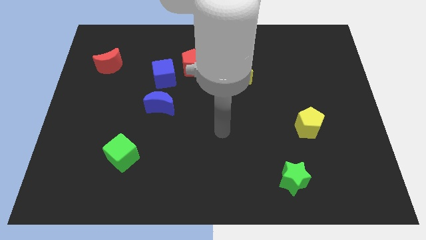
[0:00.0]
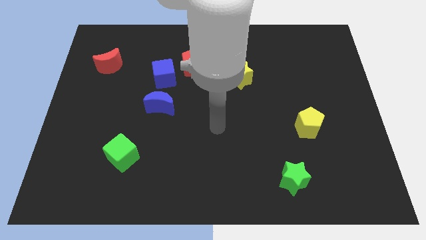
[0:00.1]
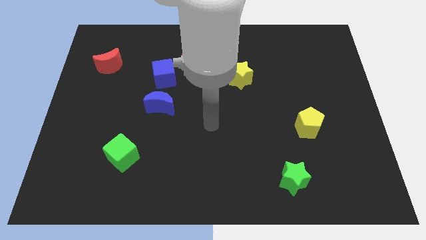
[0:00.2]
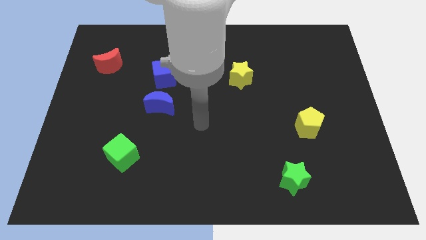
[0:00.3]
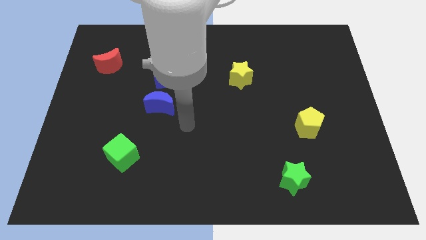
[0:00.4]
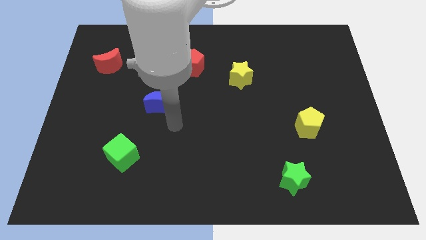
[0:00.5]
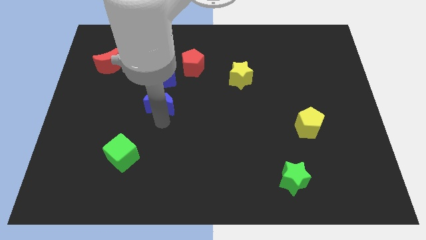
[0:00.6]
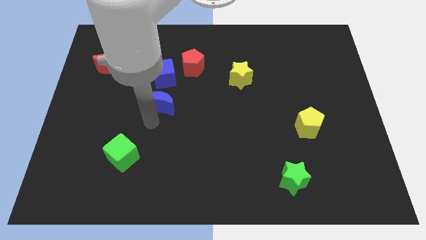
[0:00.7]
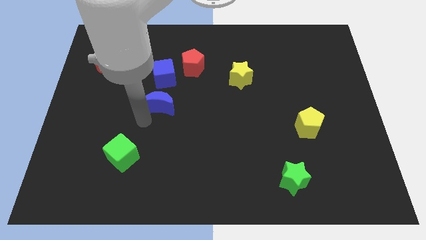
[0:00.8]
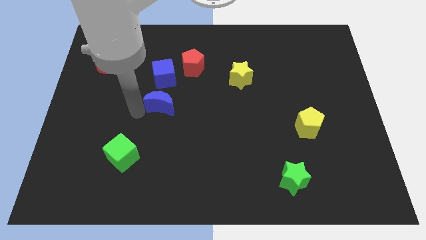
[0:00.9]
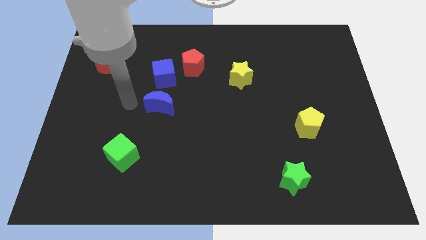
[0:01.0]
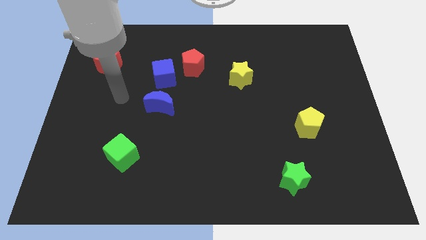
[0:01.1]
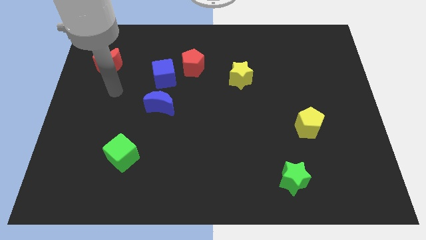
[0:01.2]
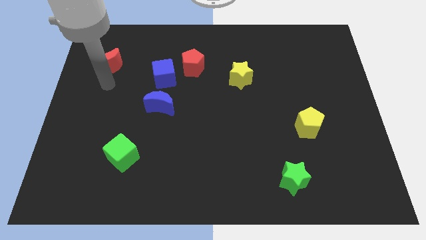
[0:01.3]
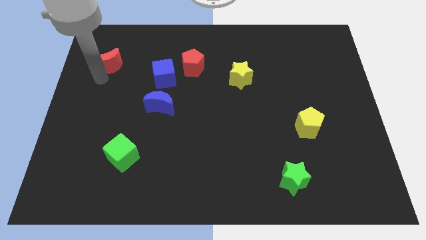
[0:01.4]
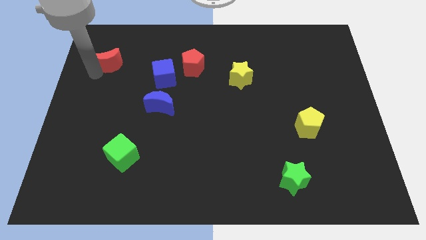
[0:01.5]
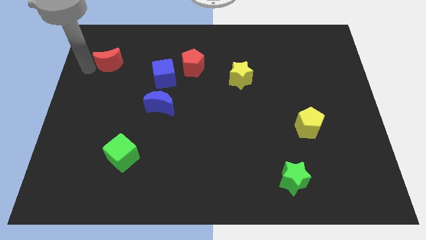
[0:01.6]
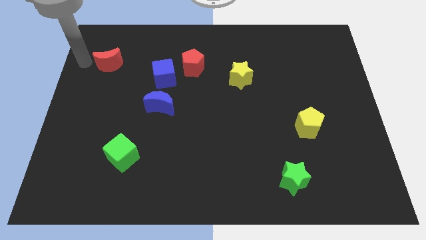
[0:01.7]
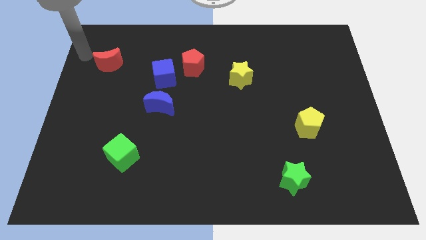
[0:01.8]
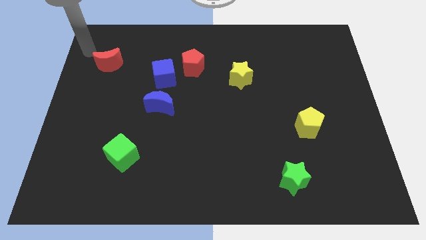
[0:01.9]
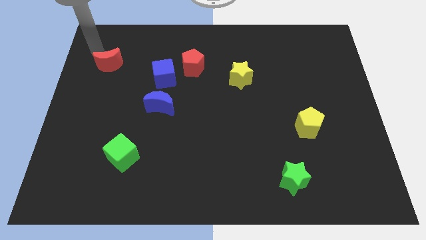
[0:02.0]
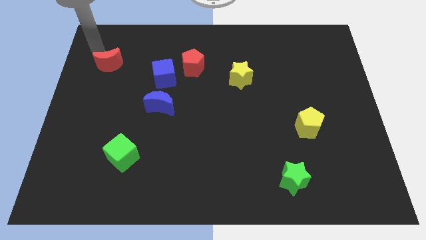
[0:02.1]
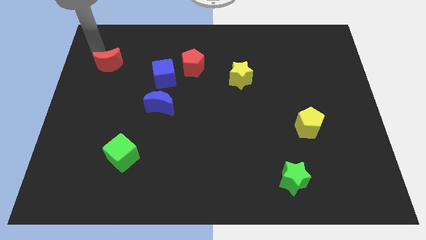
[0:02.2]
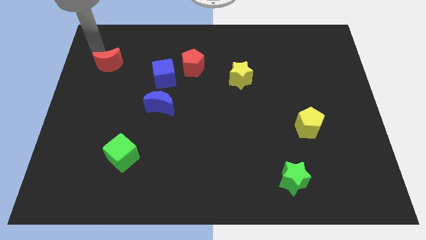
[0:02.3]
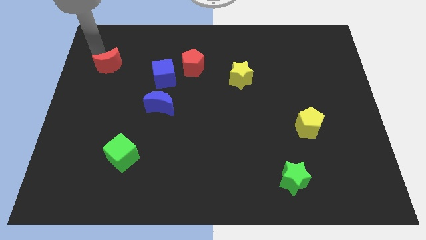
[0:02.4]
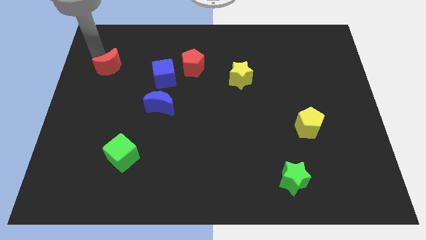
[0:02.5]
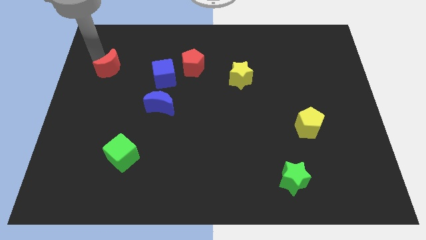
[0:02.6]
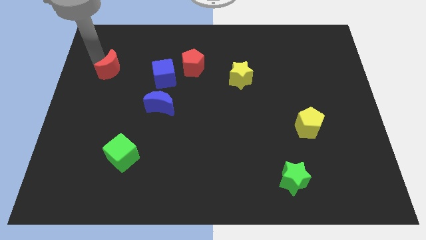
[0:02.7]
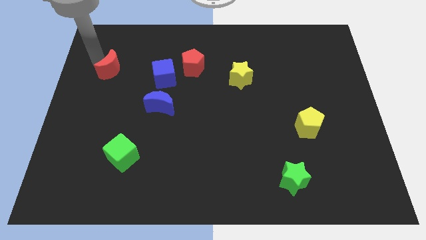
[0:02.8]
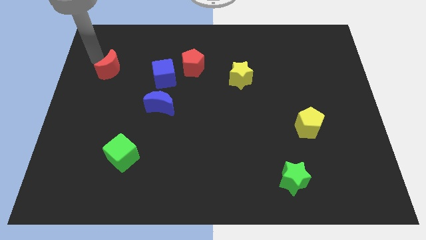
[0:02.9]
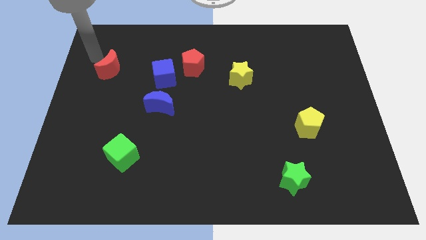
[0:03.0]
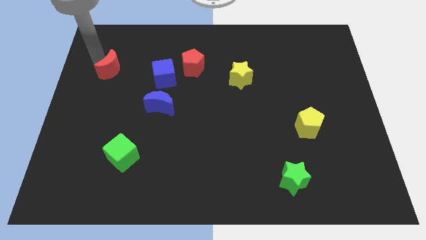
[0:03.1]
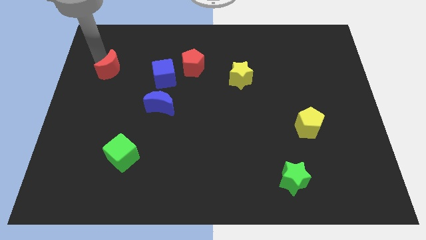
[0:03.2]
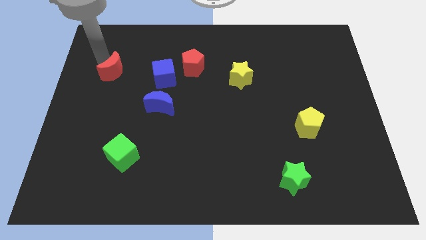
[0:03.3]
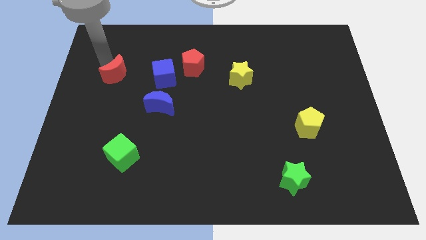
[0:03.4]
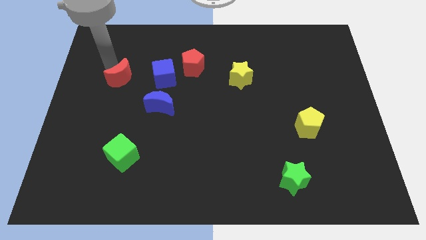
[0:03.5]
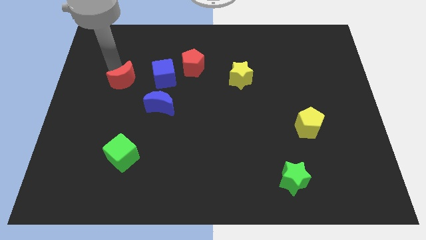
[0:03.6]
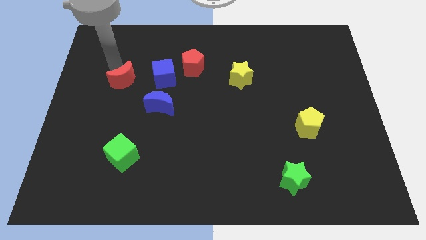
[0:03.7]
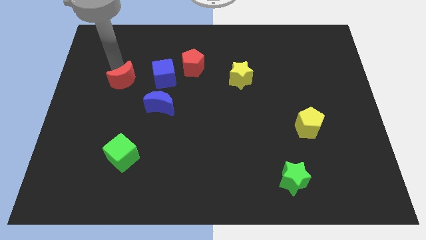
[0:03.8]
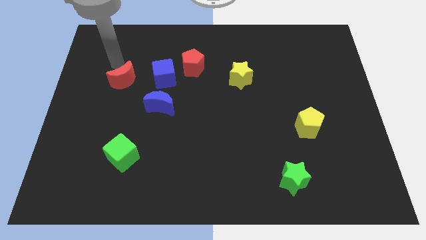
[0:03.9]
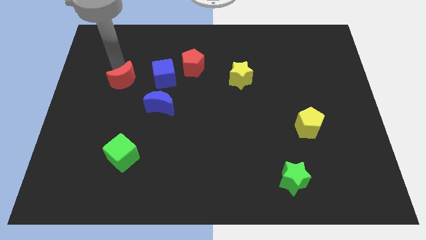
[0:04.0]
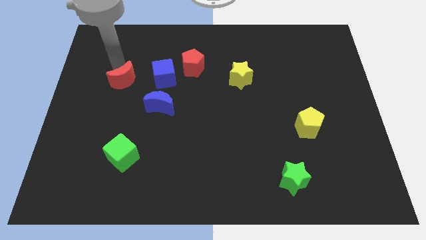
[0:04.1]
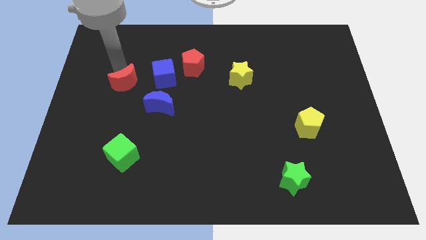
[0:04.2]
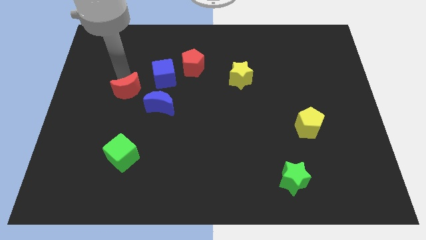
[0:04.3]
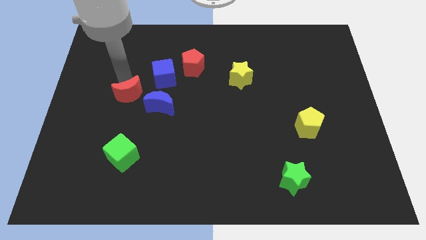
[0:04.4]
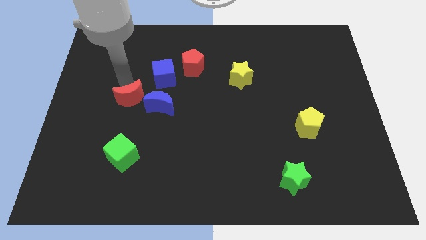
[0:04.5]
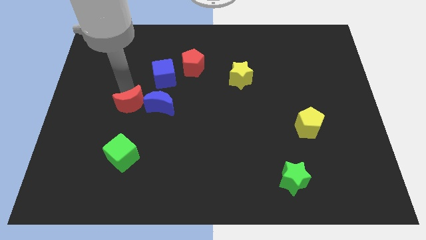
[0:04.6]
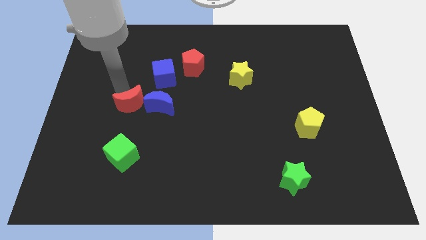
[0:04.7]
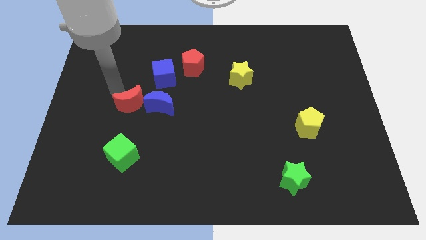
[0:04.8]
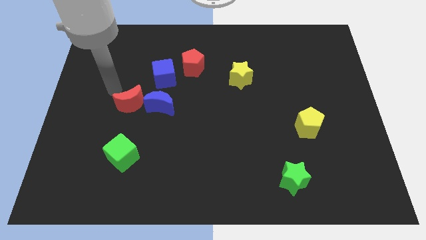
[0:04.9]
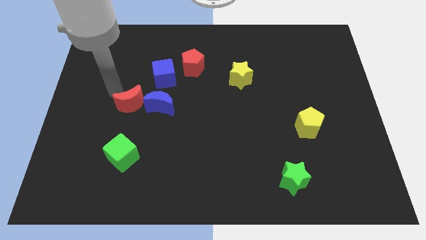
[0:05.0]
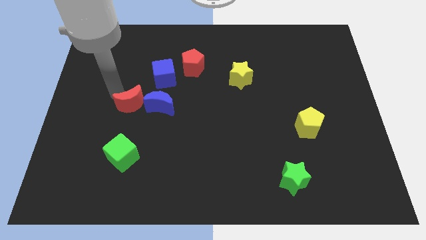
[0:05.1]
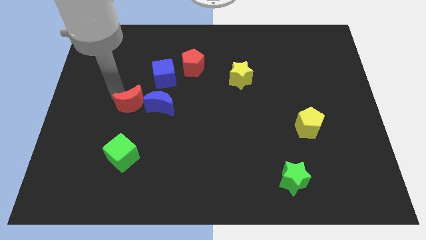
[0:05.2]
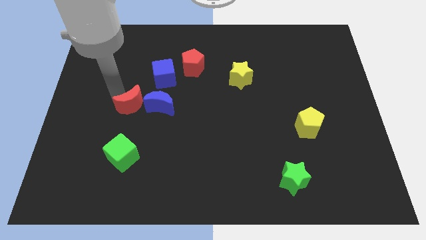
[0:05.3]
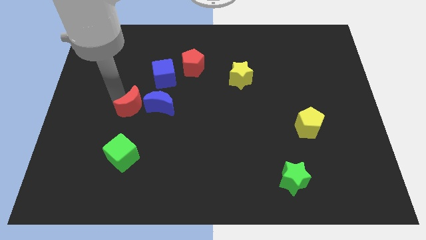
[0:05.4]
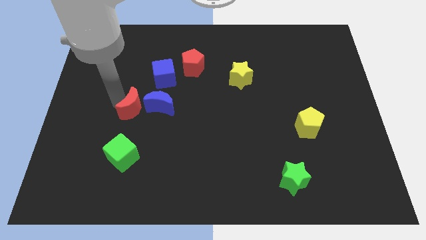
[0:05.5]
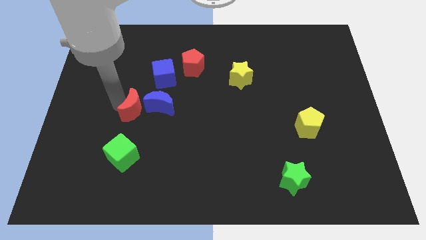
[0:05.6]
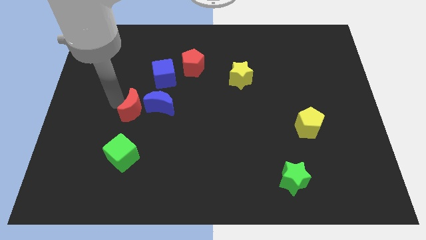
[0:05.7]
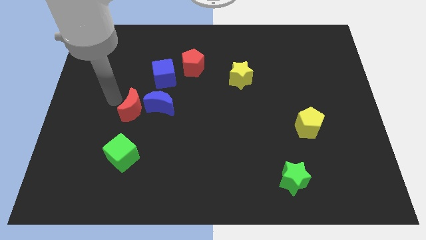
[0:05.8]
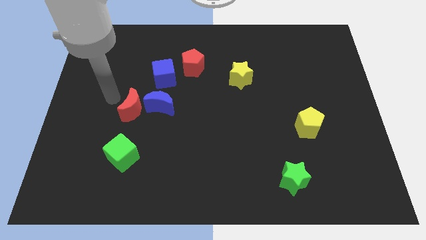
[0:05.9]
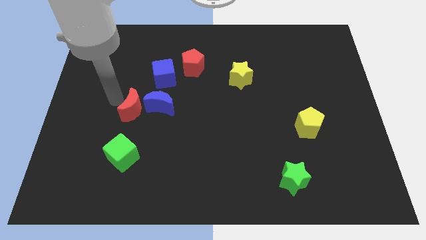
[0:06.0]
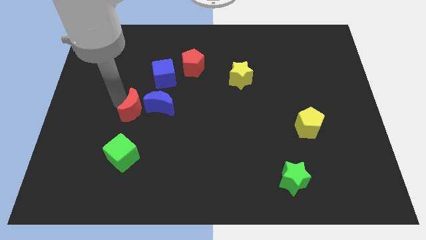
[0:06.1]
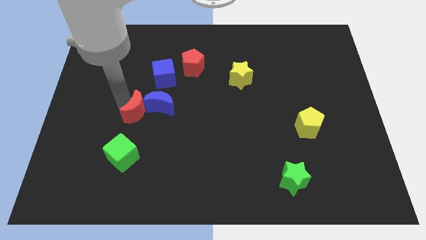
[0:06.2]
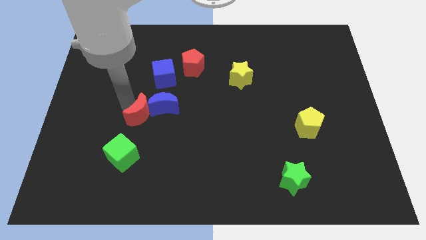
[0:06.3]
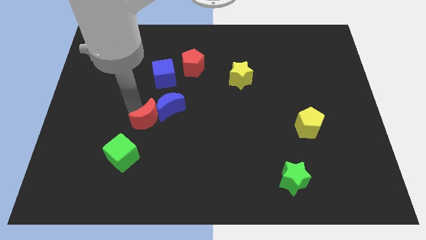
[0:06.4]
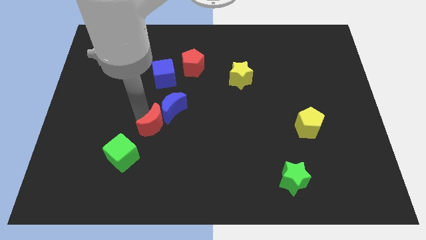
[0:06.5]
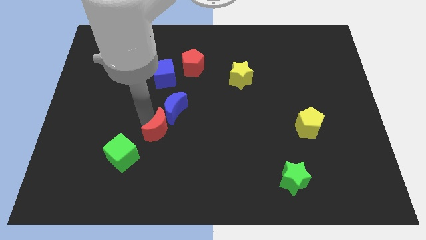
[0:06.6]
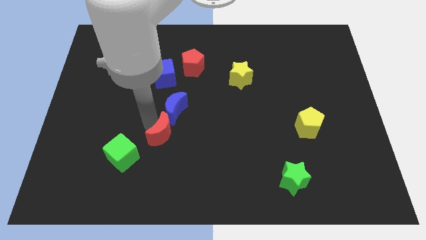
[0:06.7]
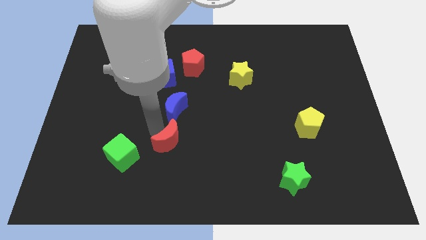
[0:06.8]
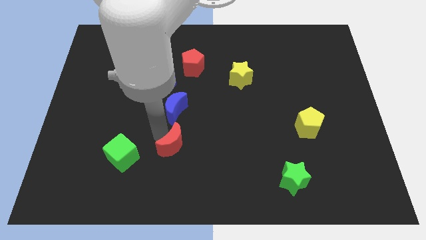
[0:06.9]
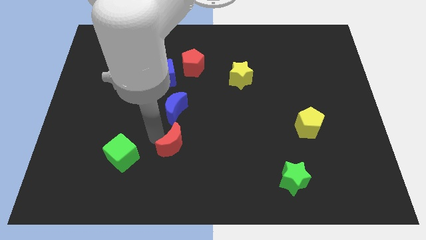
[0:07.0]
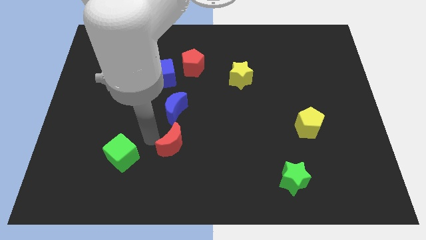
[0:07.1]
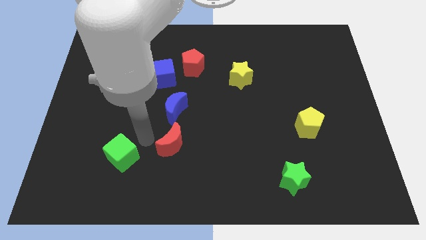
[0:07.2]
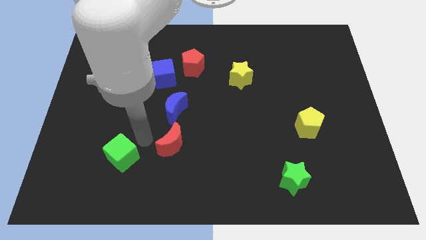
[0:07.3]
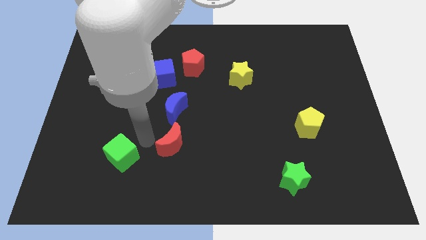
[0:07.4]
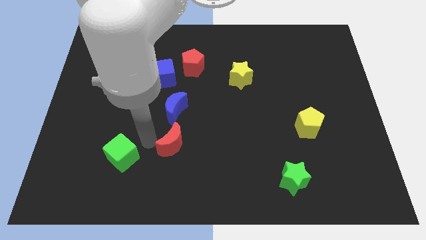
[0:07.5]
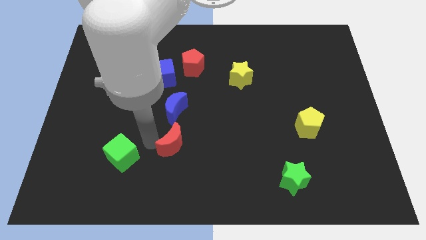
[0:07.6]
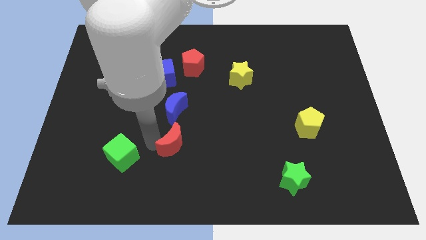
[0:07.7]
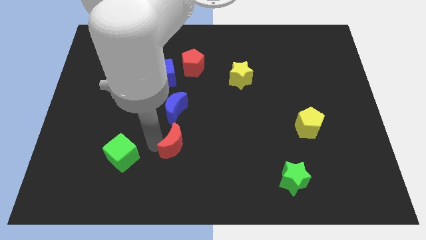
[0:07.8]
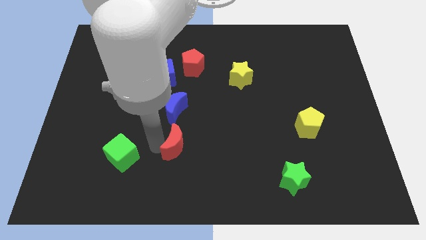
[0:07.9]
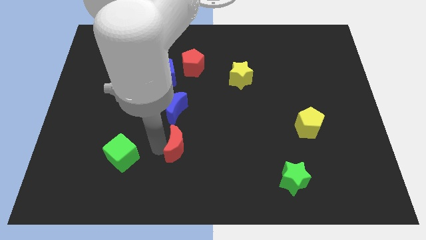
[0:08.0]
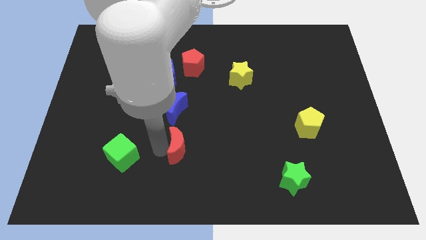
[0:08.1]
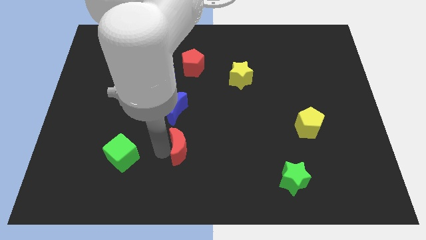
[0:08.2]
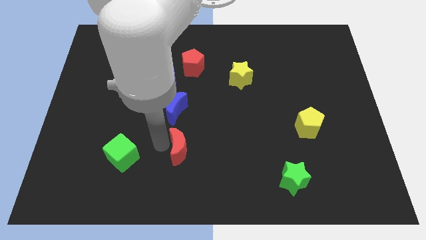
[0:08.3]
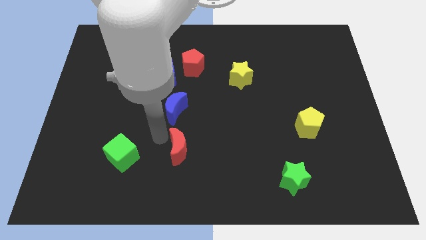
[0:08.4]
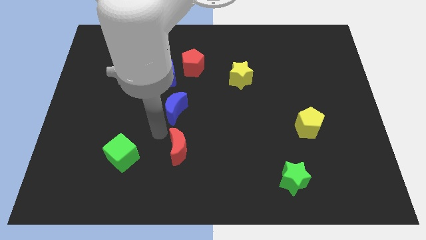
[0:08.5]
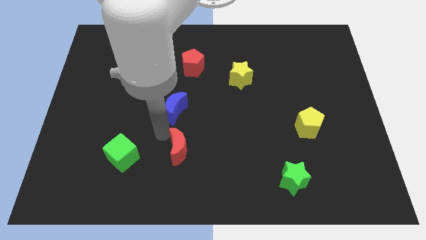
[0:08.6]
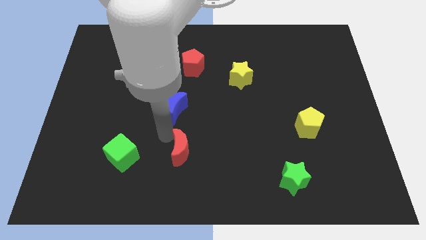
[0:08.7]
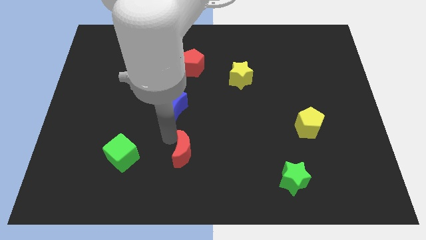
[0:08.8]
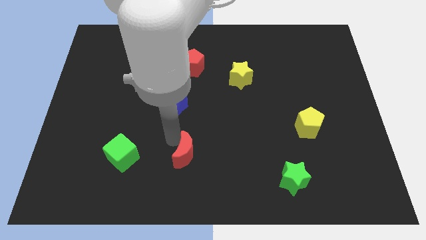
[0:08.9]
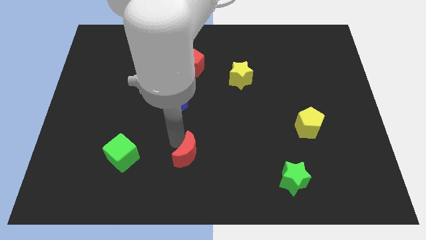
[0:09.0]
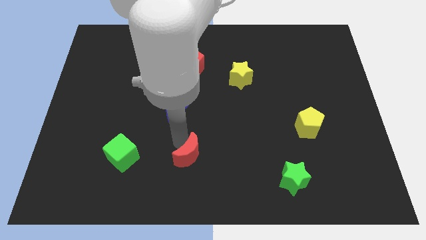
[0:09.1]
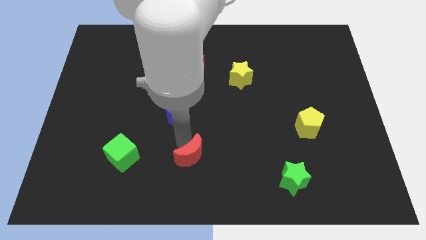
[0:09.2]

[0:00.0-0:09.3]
push the red moon to the bottom side
